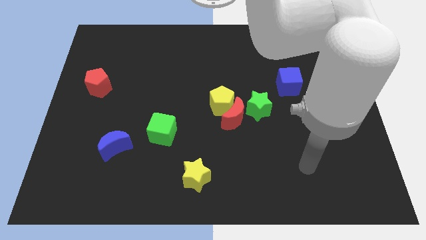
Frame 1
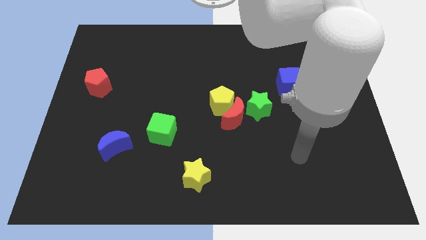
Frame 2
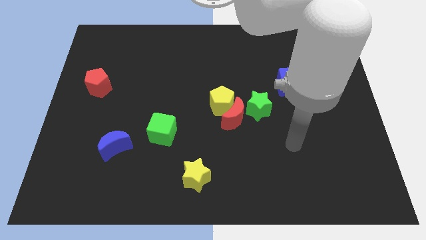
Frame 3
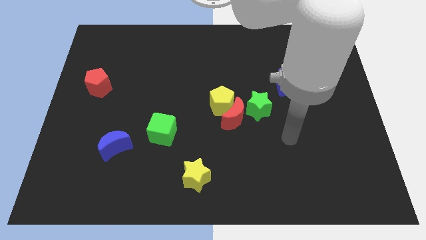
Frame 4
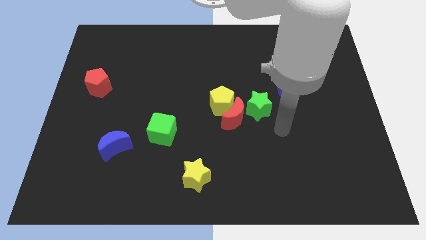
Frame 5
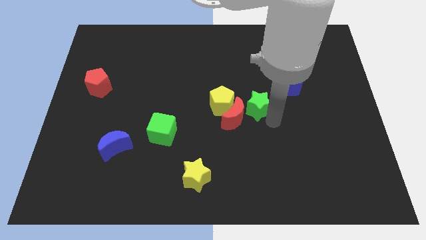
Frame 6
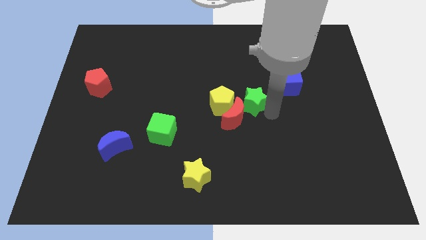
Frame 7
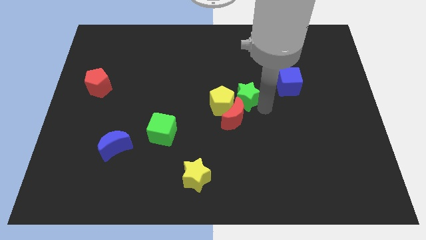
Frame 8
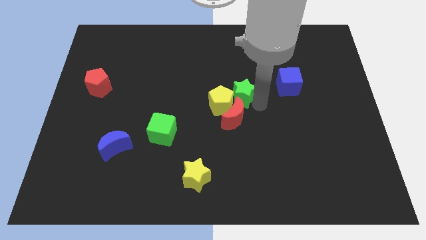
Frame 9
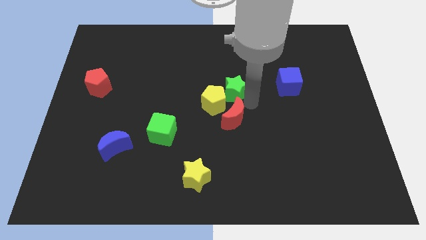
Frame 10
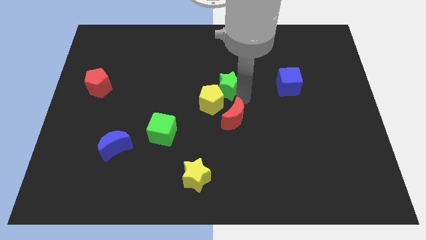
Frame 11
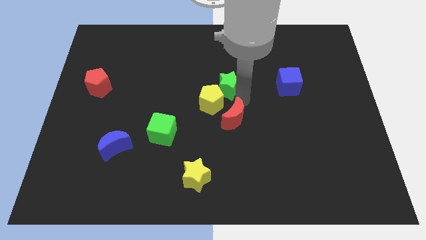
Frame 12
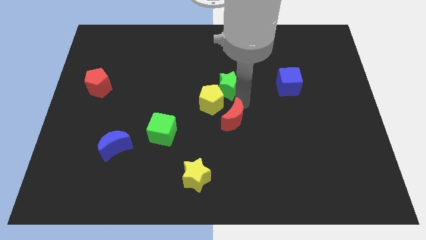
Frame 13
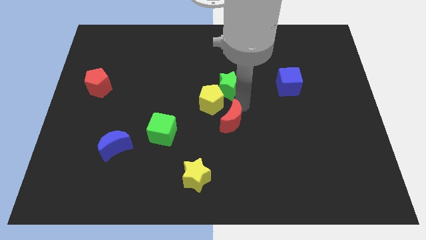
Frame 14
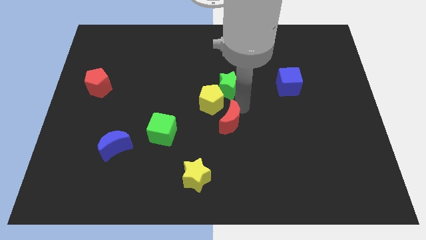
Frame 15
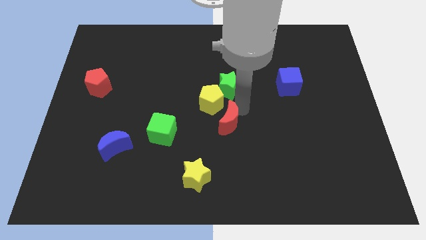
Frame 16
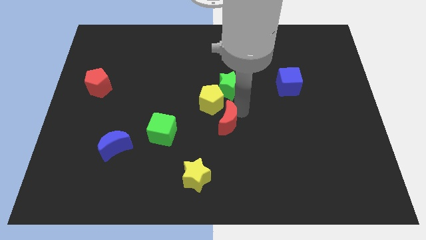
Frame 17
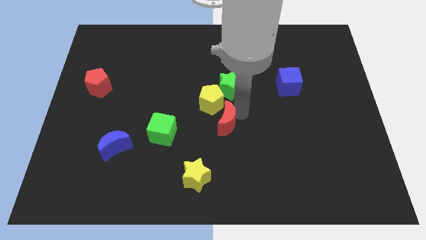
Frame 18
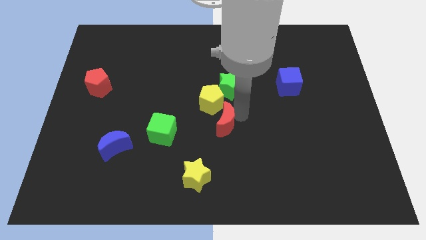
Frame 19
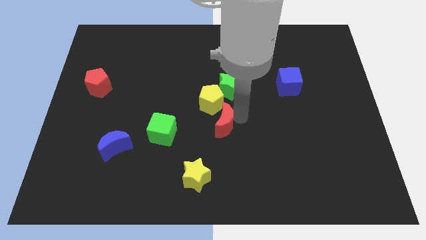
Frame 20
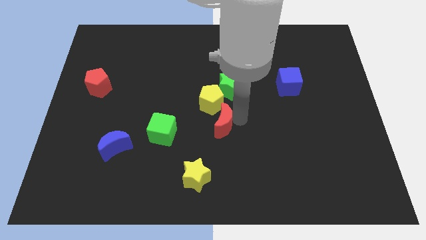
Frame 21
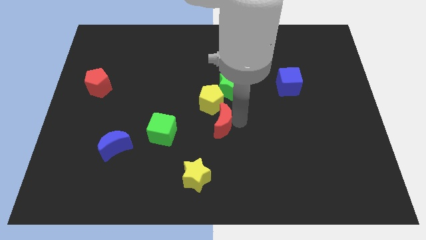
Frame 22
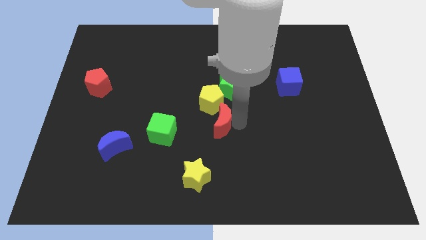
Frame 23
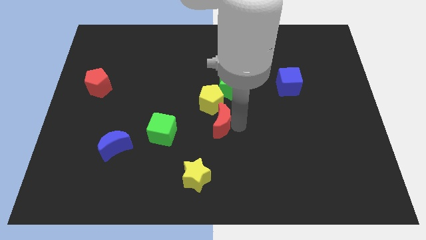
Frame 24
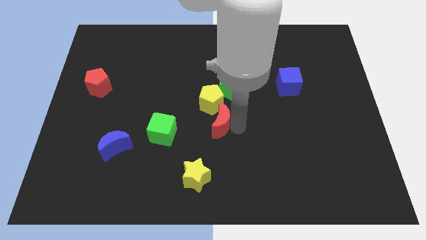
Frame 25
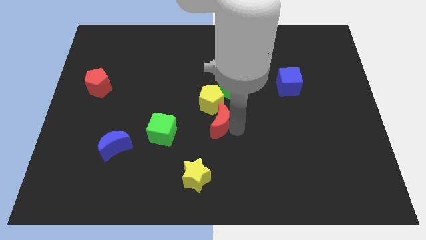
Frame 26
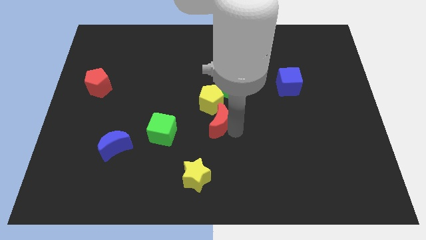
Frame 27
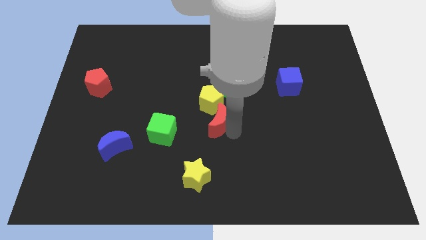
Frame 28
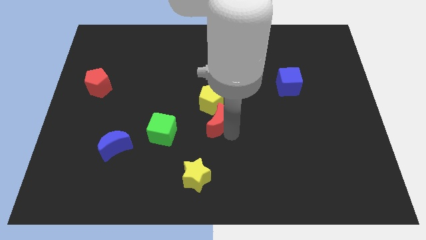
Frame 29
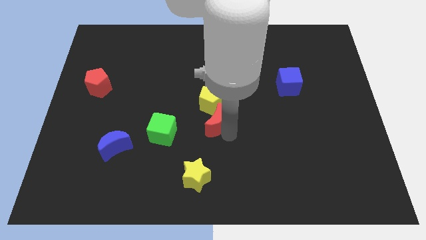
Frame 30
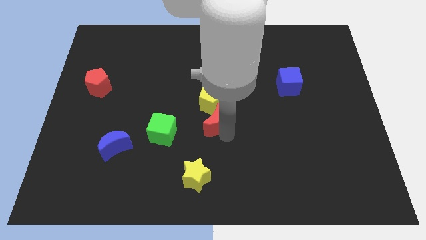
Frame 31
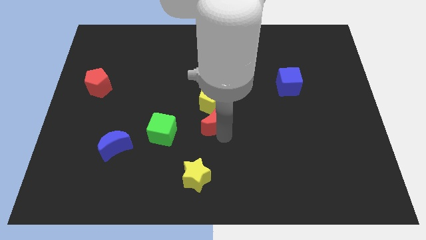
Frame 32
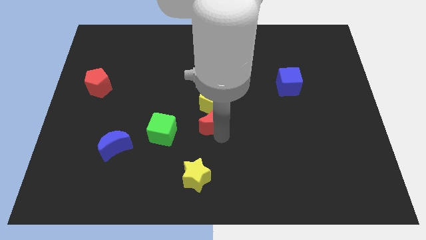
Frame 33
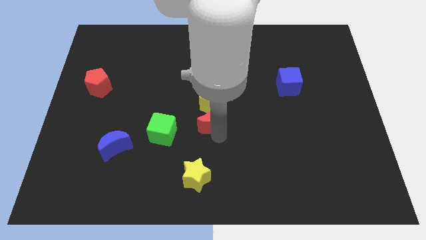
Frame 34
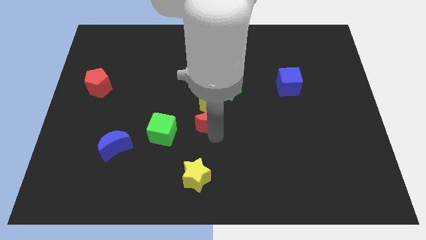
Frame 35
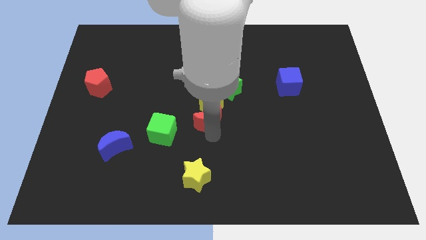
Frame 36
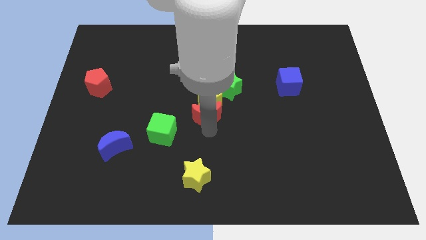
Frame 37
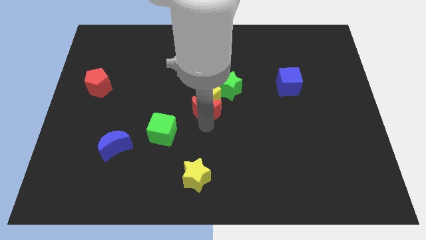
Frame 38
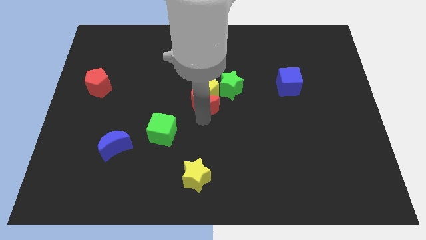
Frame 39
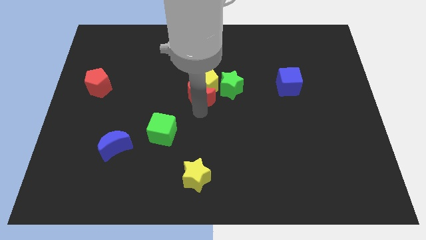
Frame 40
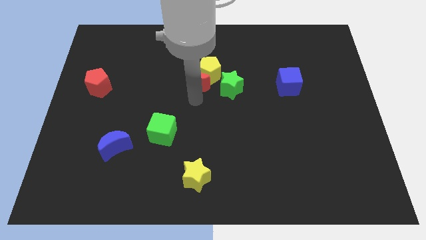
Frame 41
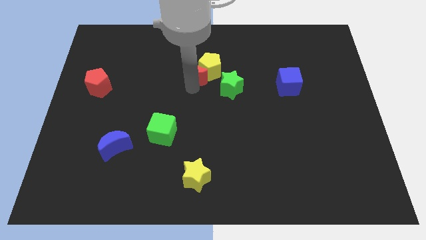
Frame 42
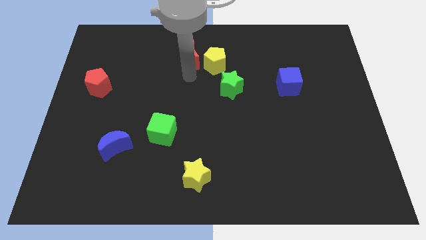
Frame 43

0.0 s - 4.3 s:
move the red moon away from the yellow pentagon and green star

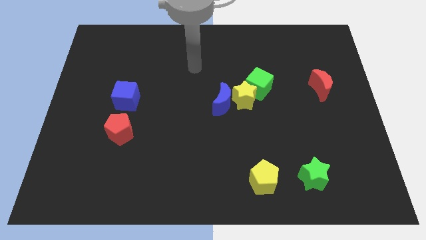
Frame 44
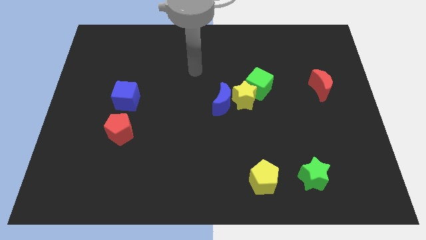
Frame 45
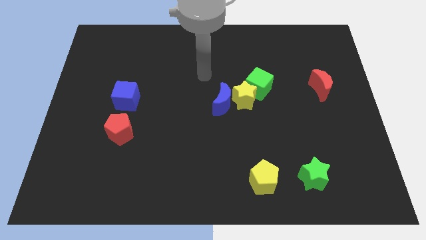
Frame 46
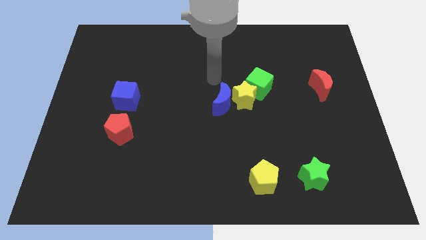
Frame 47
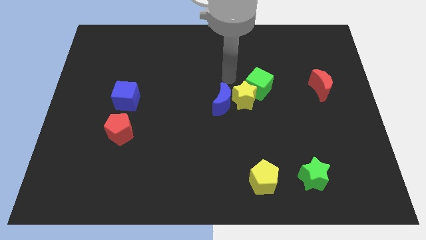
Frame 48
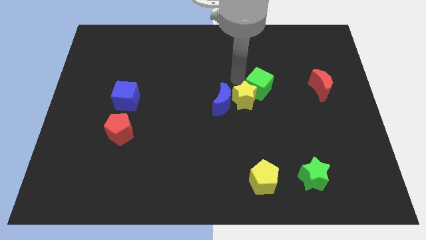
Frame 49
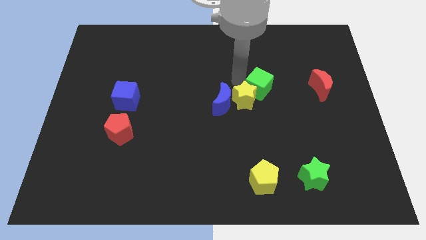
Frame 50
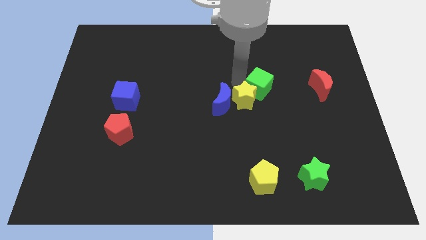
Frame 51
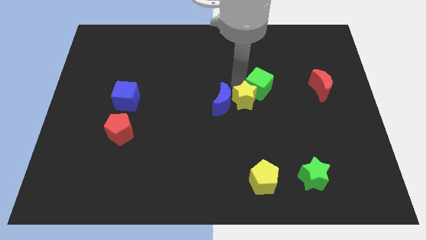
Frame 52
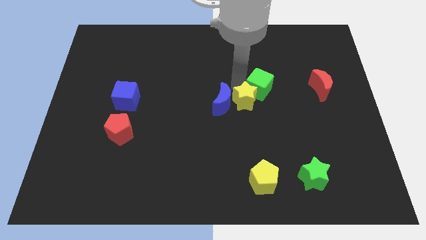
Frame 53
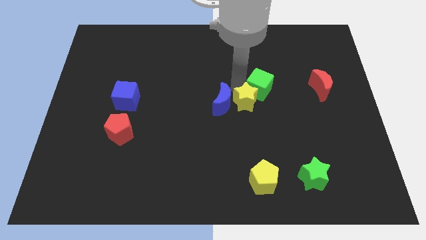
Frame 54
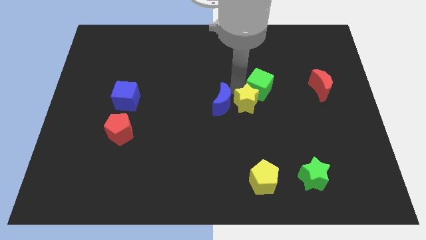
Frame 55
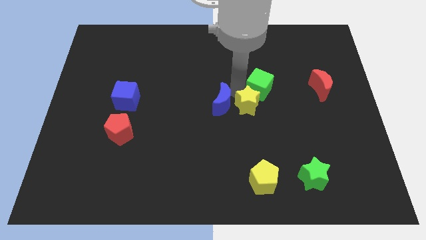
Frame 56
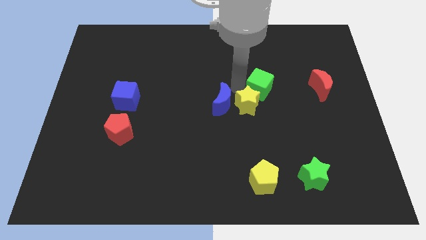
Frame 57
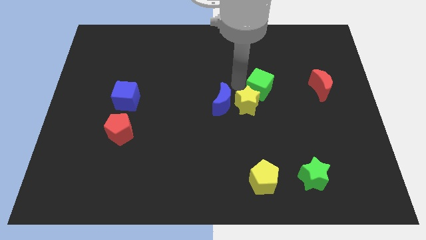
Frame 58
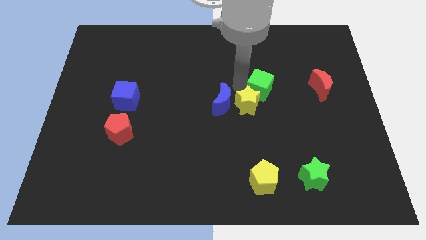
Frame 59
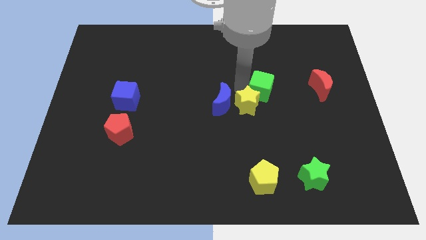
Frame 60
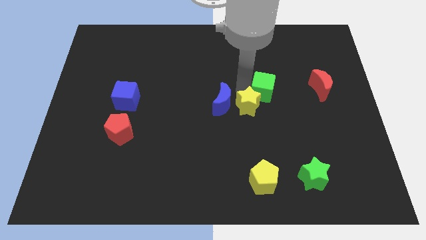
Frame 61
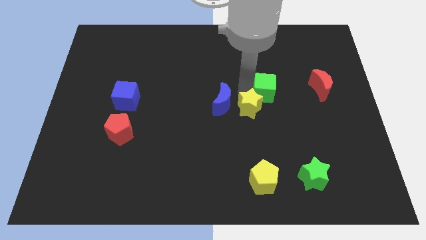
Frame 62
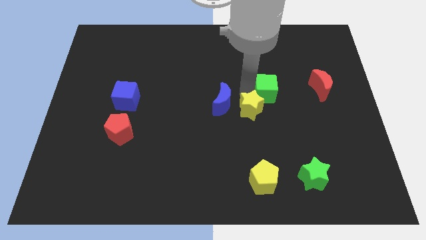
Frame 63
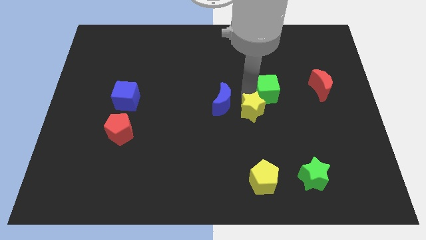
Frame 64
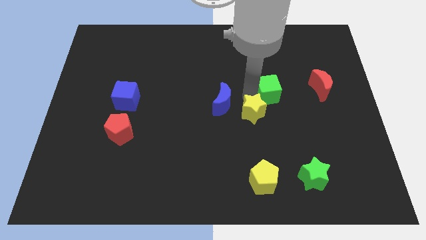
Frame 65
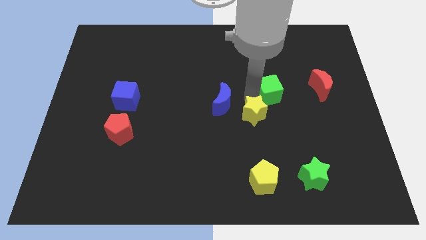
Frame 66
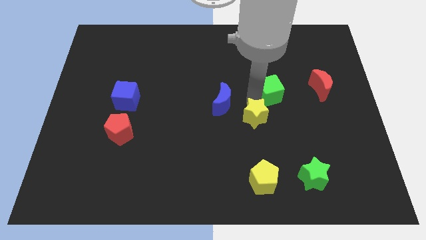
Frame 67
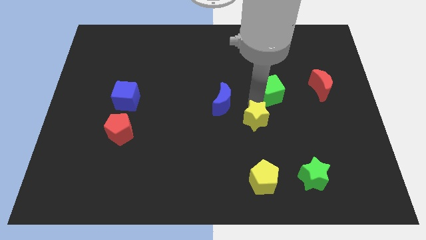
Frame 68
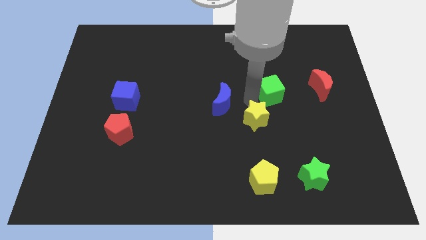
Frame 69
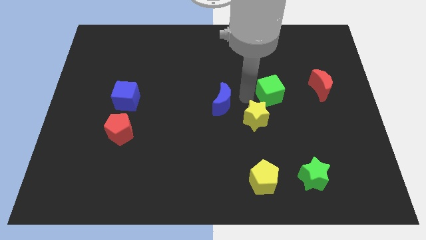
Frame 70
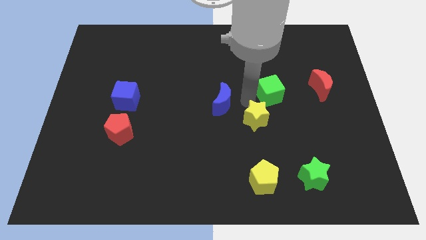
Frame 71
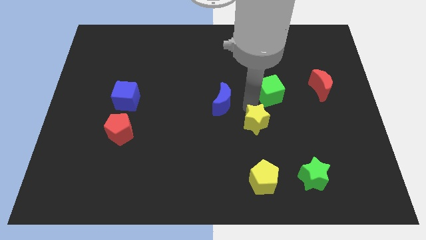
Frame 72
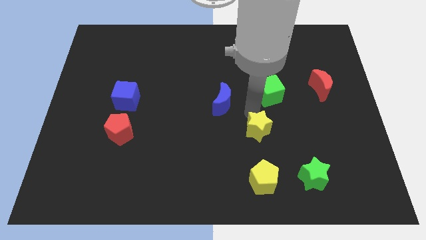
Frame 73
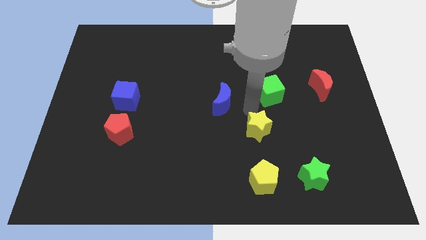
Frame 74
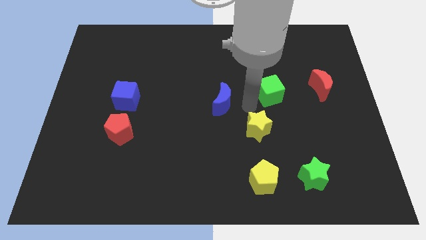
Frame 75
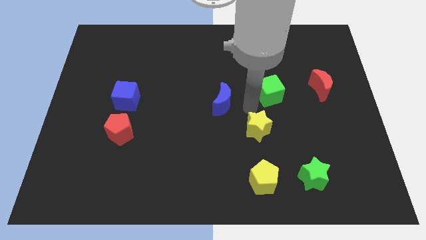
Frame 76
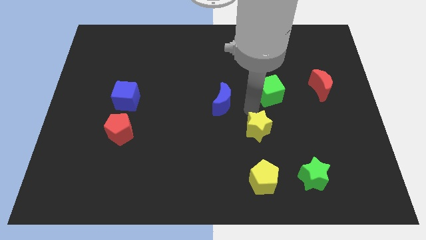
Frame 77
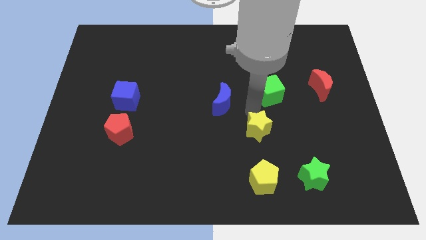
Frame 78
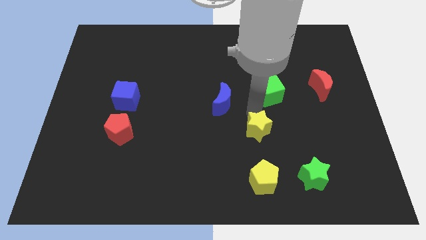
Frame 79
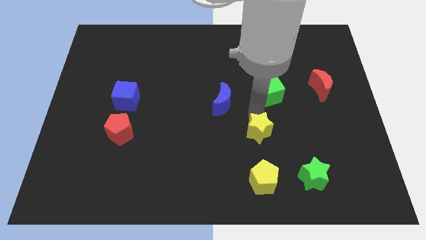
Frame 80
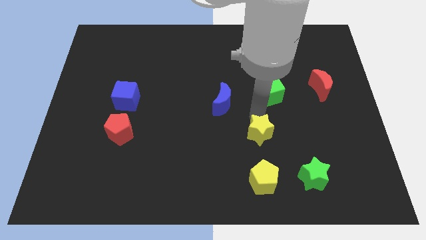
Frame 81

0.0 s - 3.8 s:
separate the yellow star from the blue moon and green cube

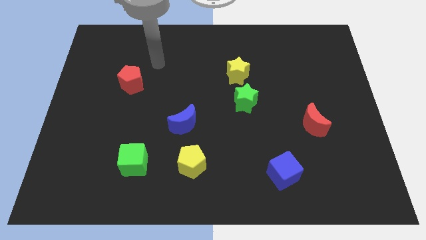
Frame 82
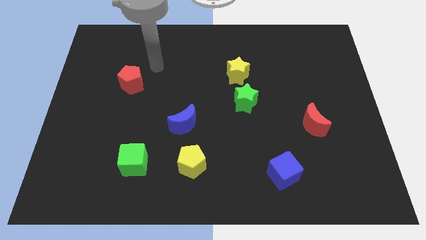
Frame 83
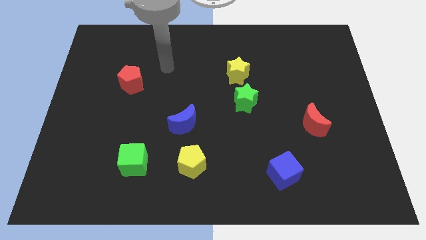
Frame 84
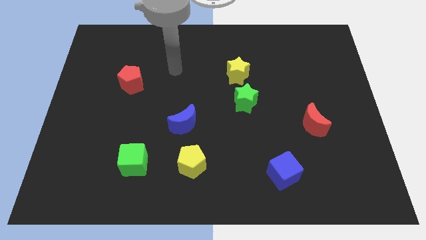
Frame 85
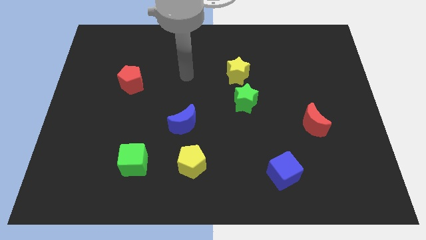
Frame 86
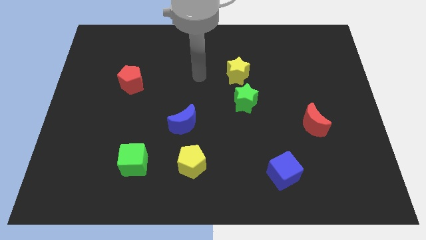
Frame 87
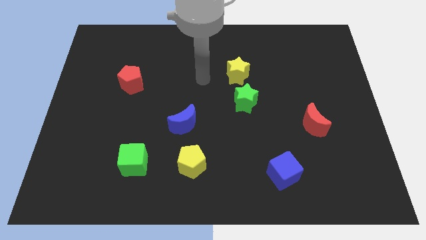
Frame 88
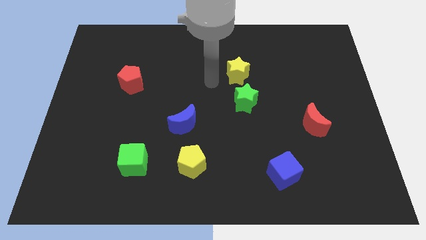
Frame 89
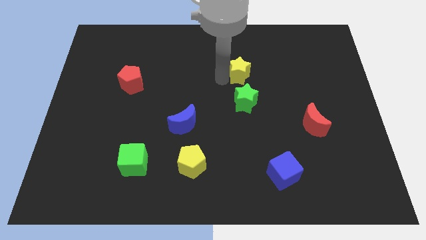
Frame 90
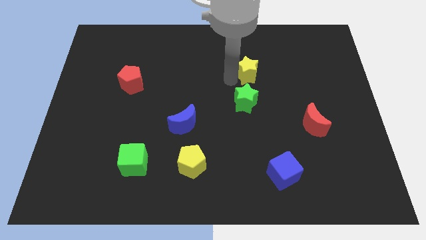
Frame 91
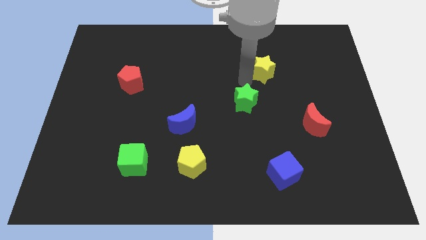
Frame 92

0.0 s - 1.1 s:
separate the green star from the yellow star
